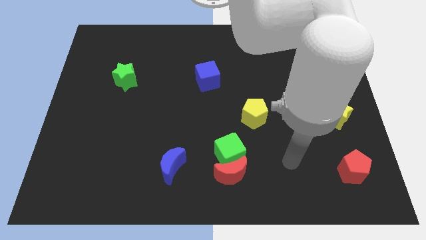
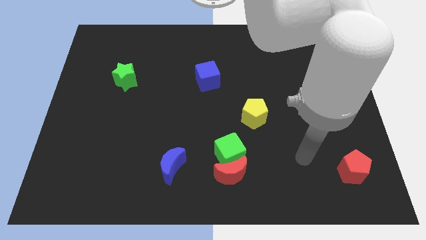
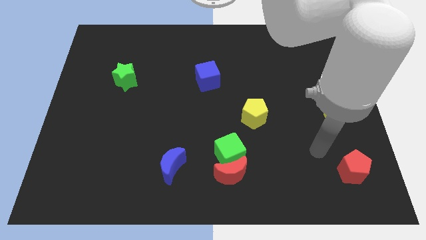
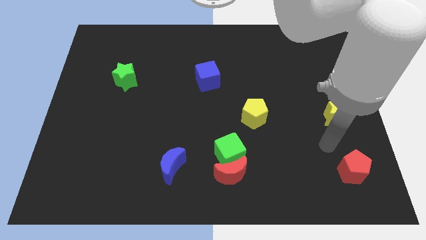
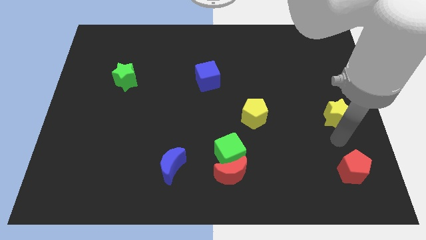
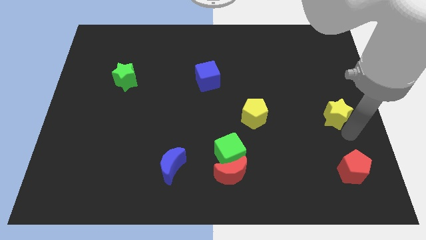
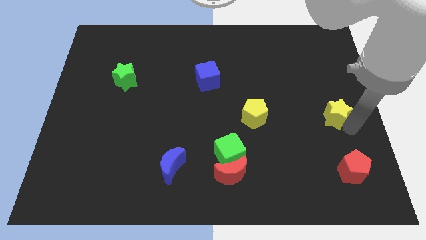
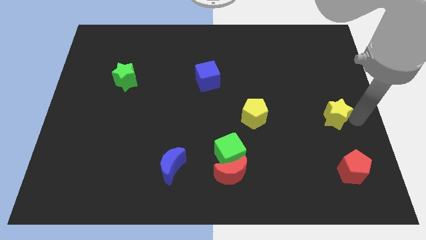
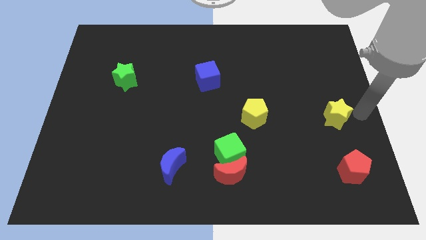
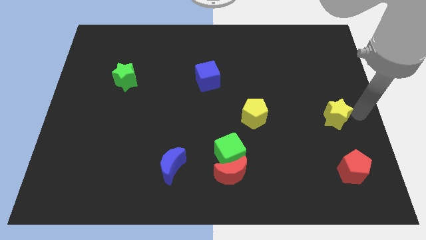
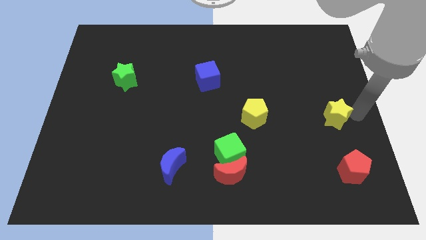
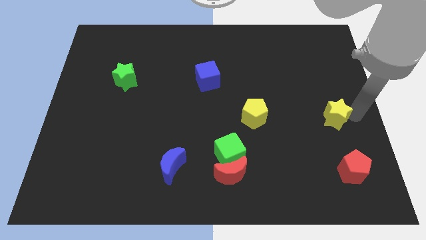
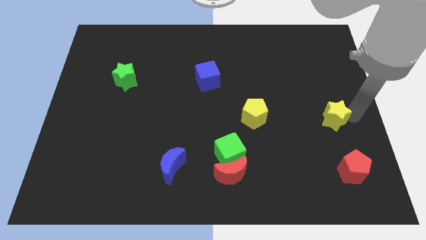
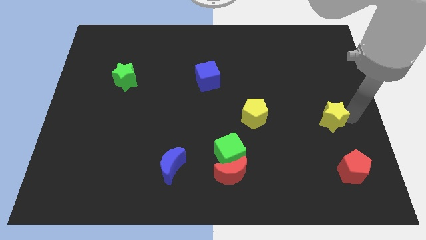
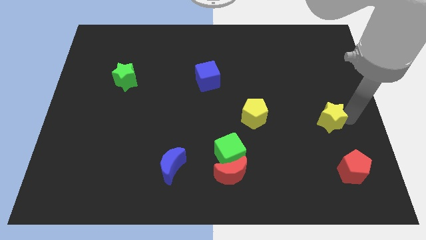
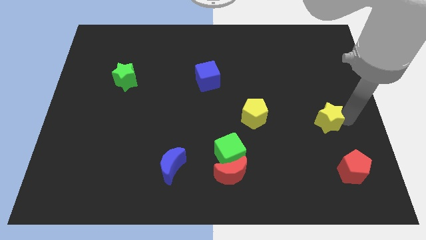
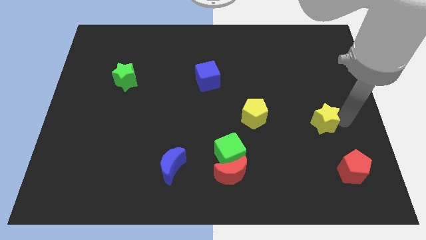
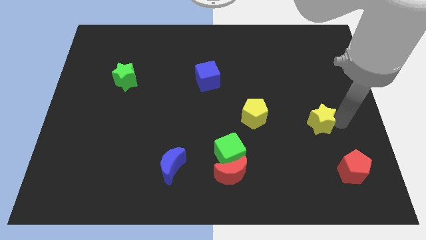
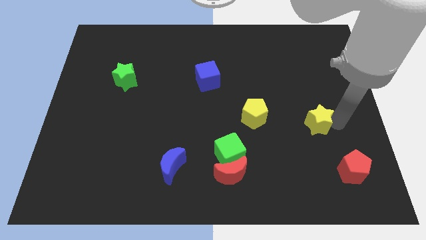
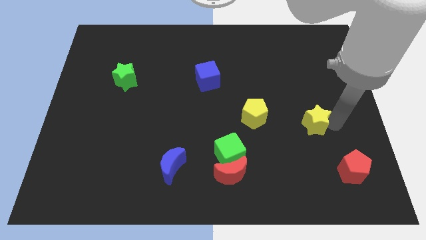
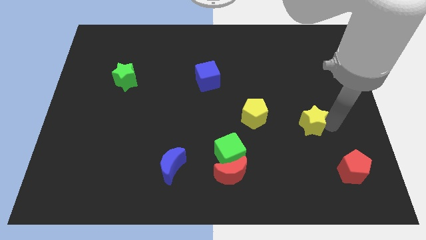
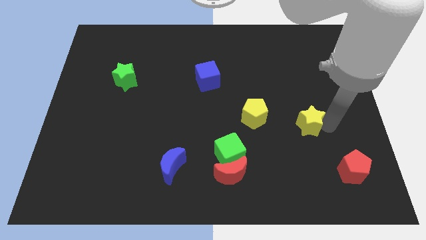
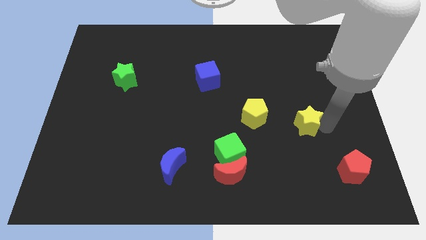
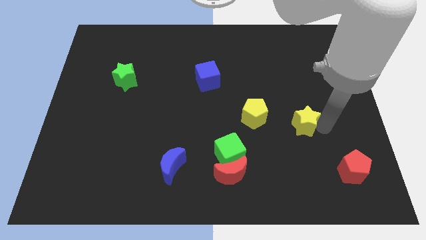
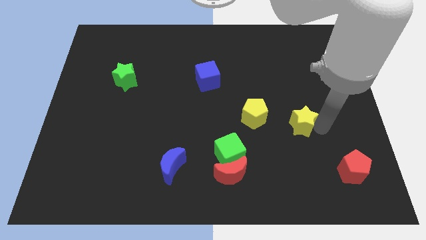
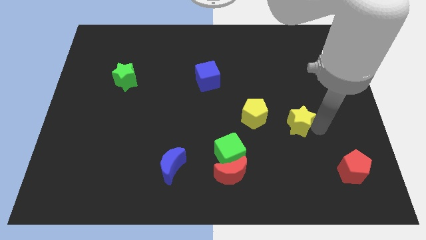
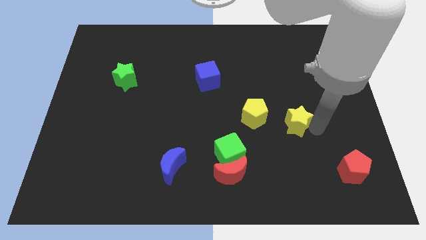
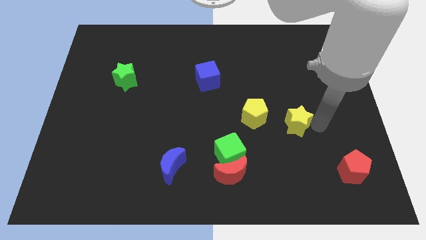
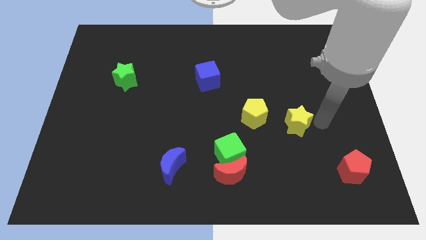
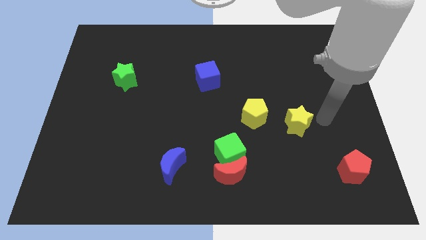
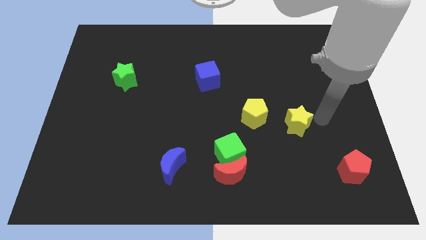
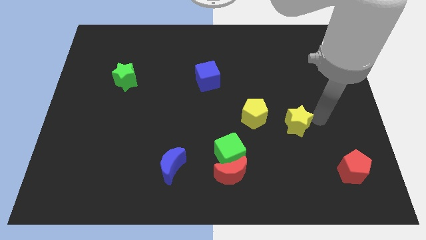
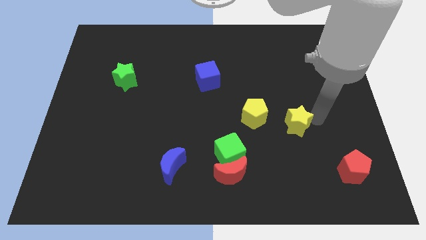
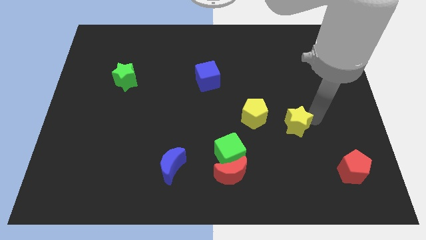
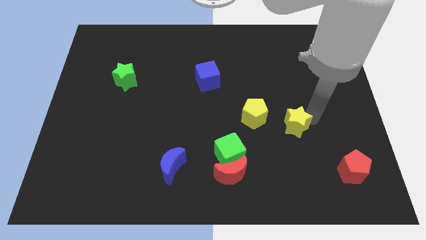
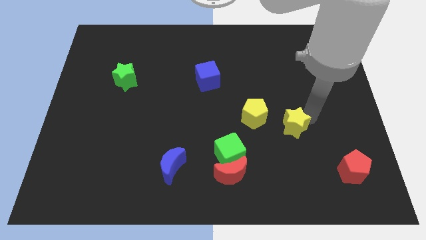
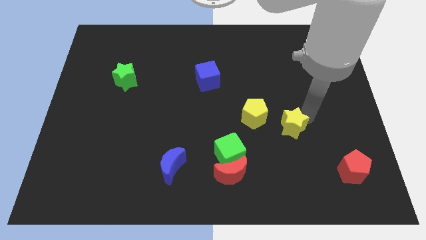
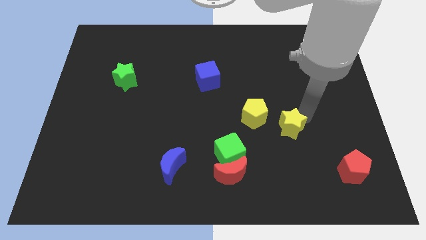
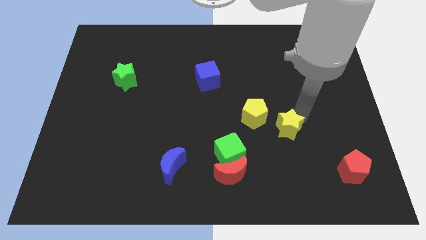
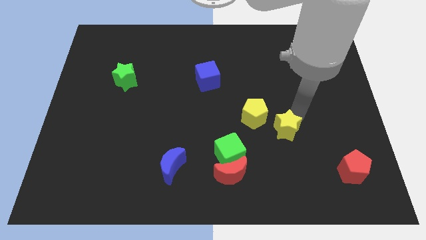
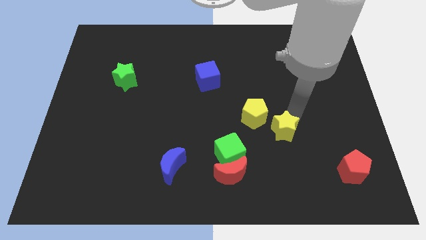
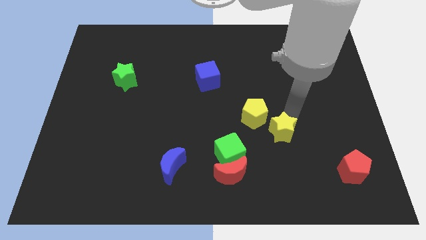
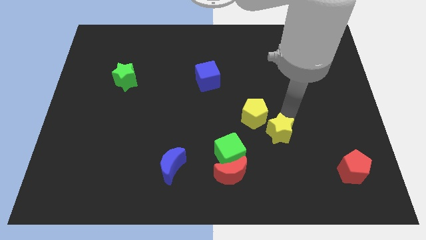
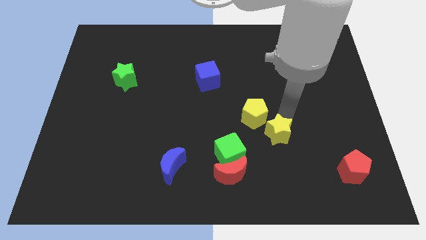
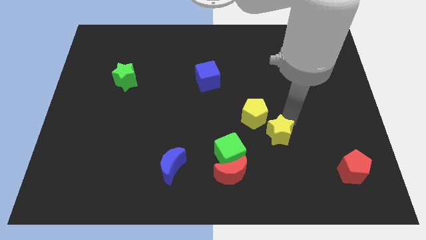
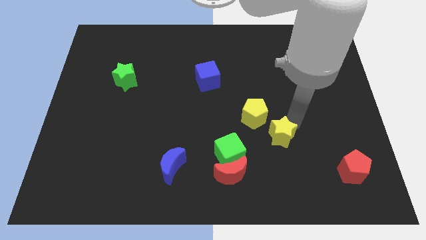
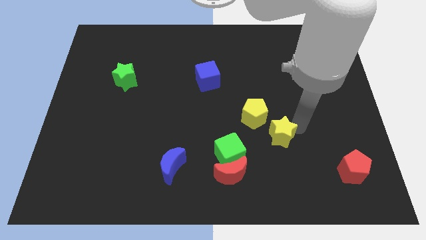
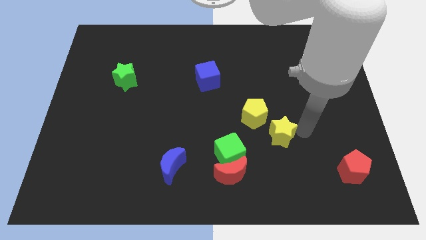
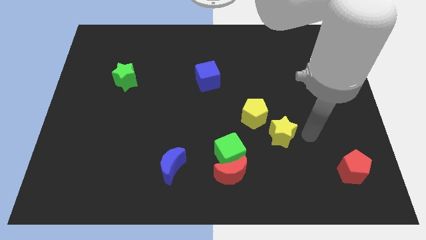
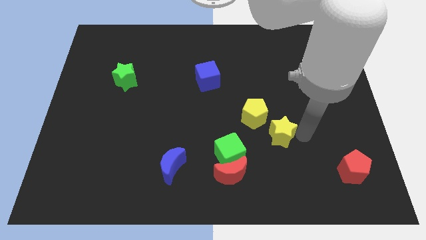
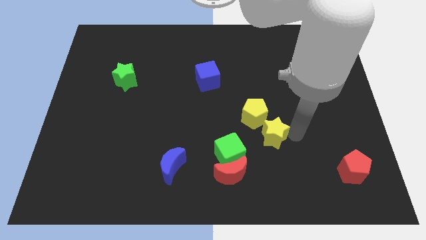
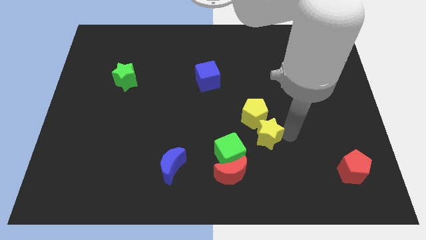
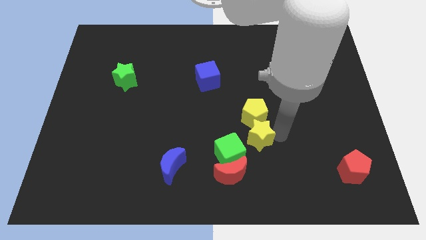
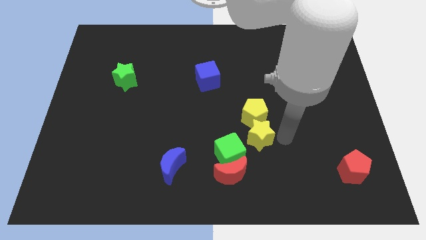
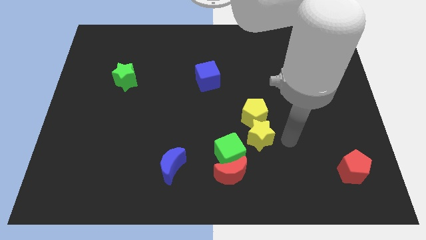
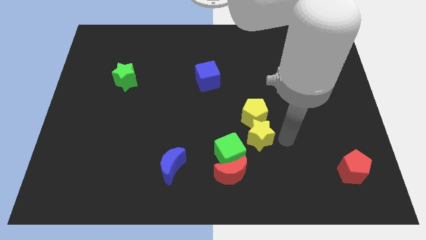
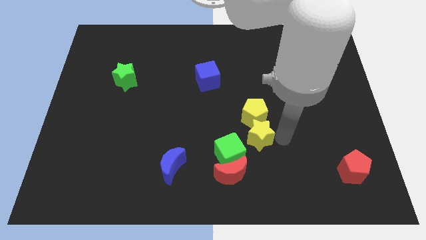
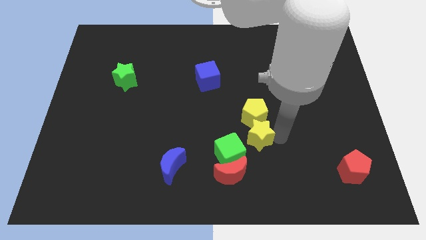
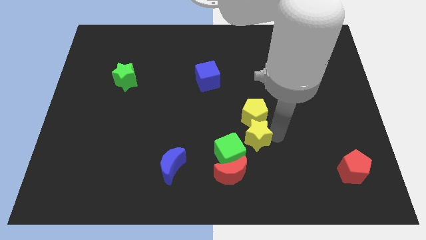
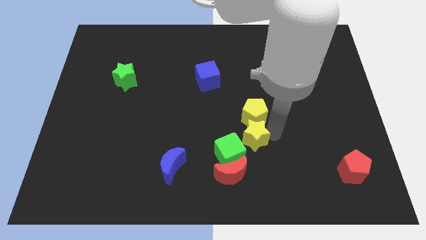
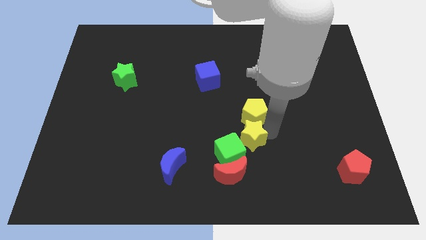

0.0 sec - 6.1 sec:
put the yellow star to the top side of the red moon
